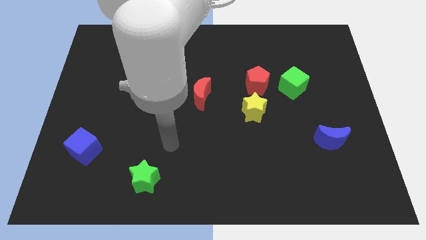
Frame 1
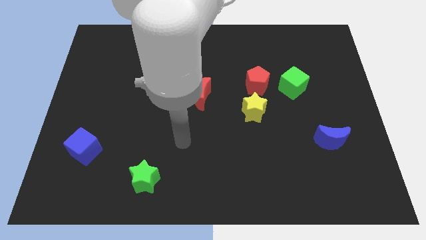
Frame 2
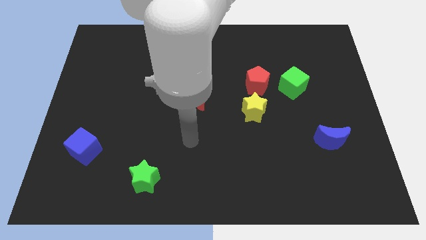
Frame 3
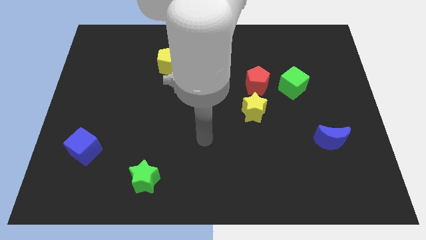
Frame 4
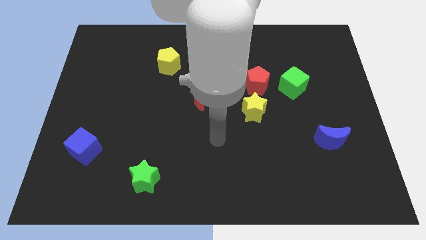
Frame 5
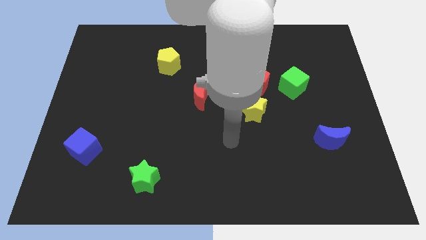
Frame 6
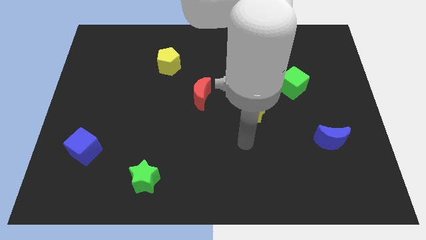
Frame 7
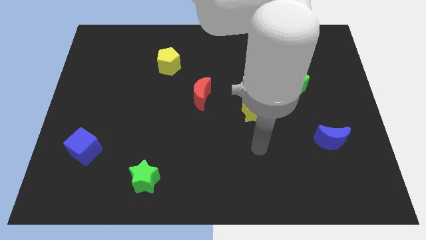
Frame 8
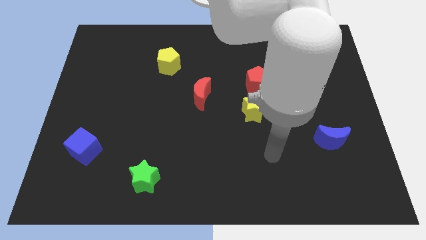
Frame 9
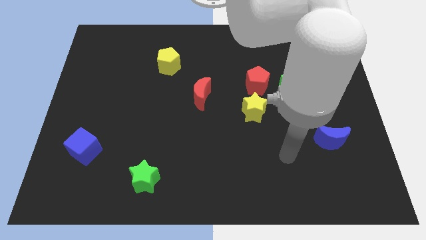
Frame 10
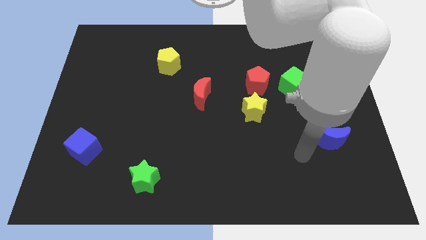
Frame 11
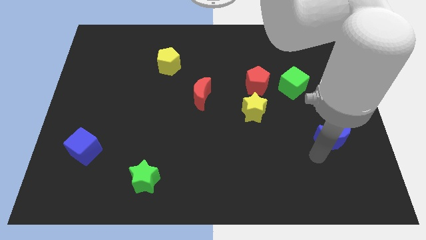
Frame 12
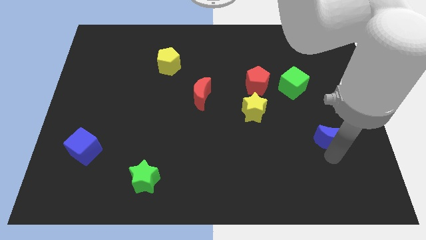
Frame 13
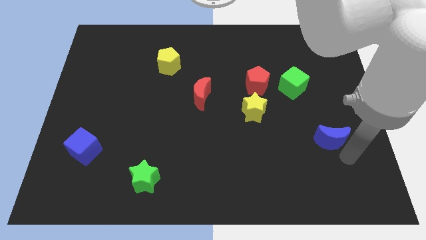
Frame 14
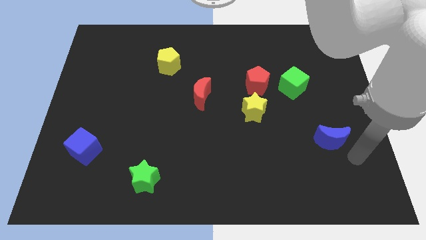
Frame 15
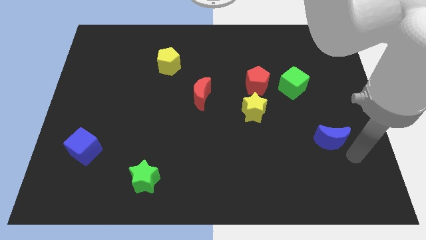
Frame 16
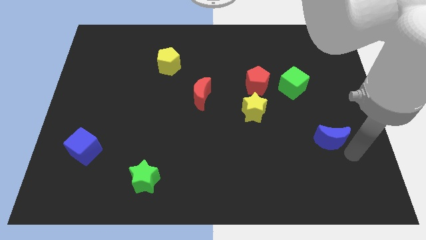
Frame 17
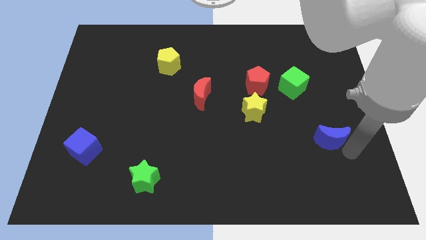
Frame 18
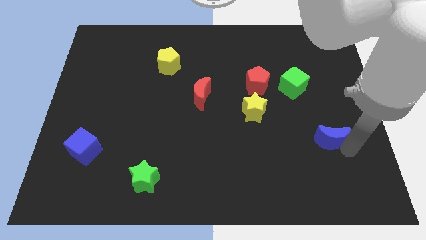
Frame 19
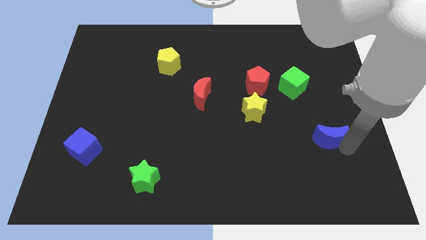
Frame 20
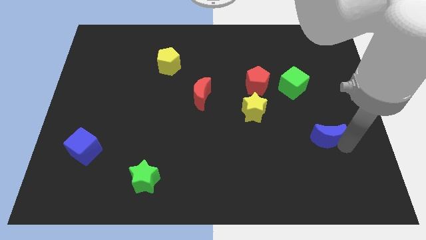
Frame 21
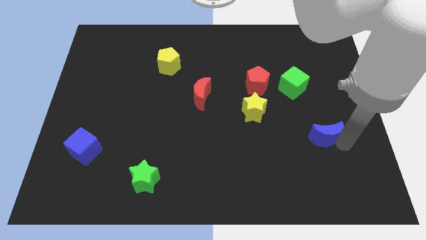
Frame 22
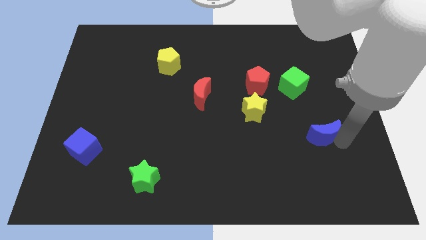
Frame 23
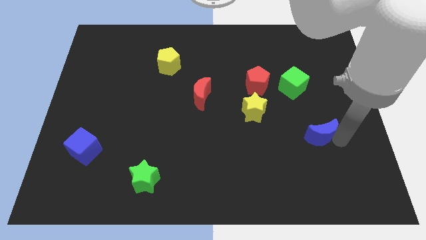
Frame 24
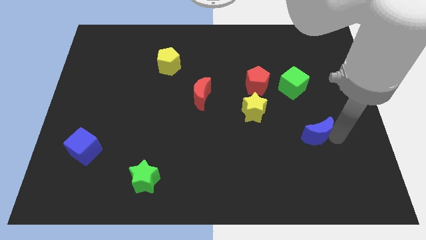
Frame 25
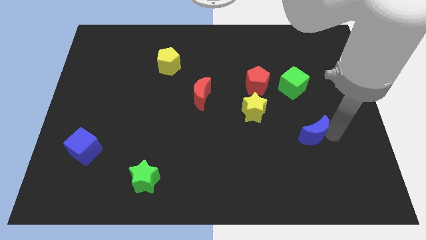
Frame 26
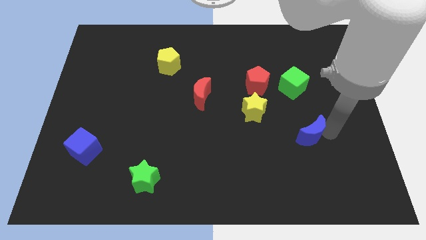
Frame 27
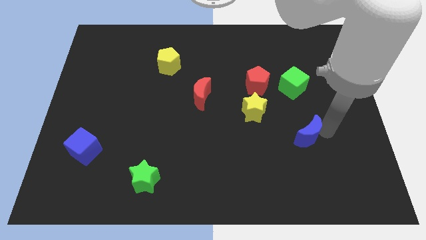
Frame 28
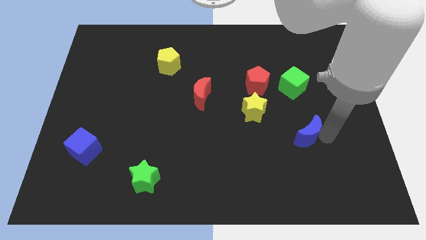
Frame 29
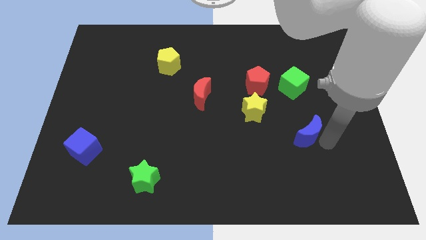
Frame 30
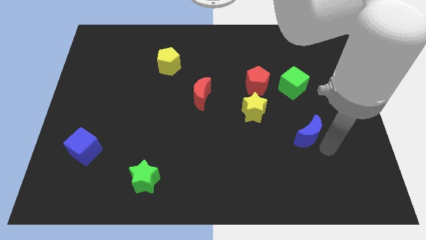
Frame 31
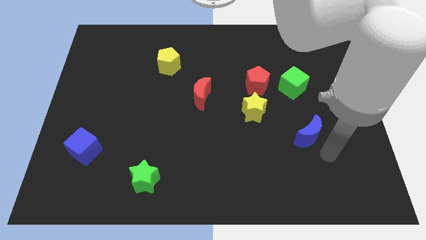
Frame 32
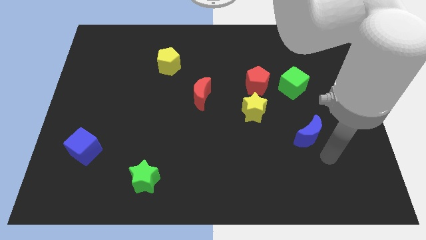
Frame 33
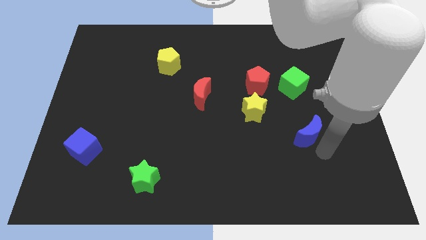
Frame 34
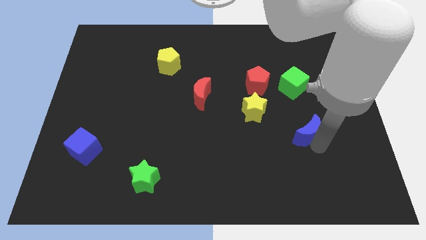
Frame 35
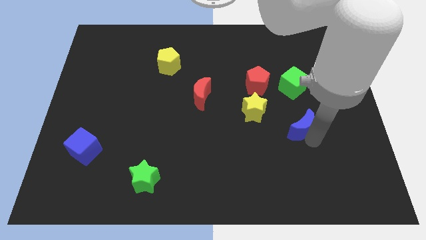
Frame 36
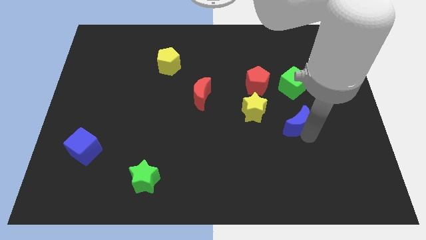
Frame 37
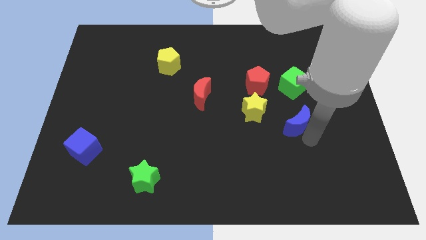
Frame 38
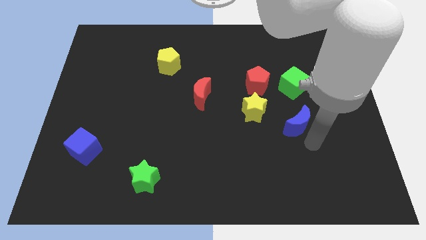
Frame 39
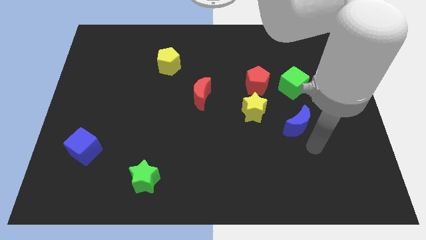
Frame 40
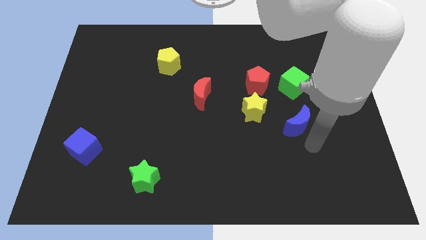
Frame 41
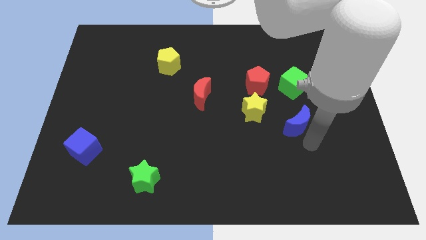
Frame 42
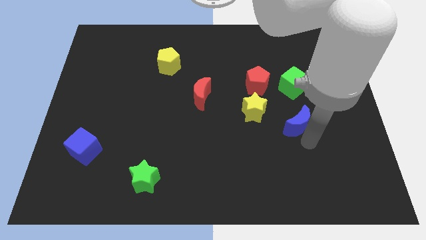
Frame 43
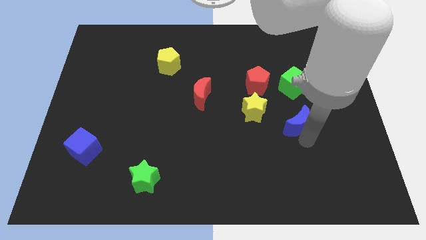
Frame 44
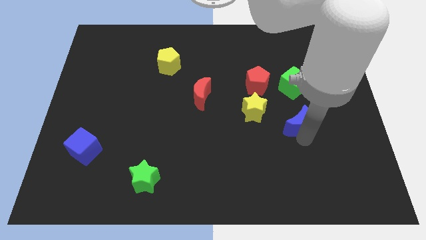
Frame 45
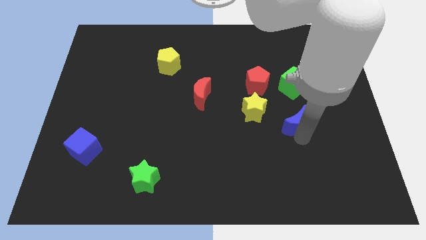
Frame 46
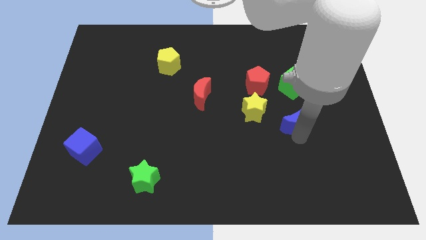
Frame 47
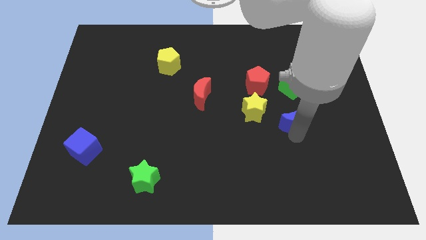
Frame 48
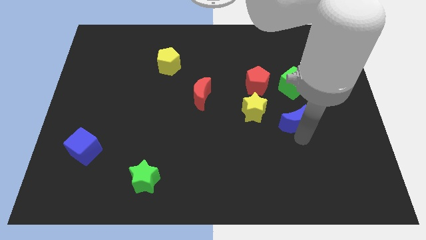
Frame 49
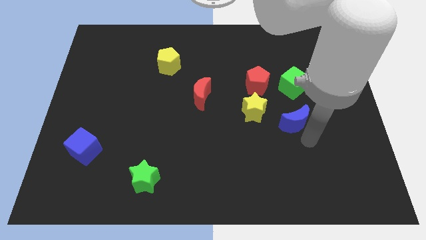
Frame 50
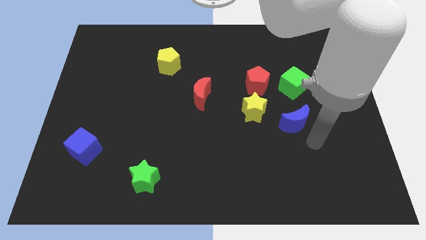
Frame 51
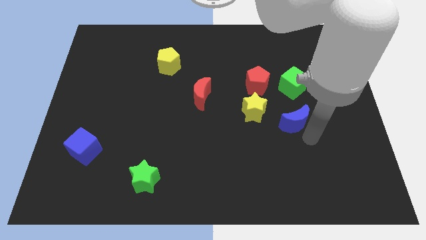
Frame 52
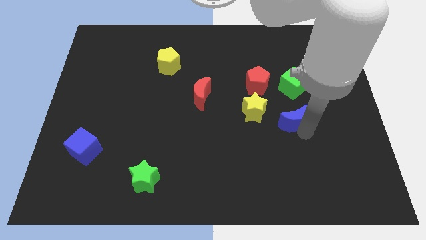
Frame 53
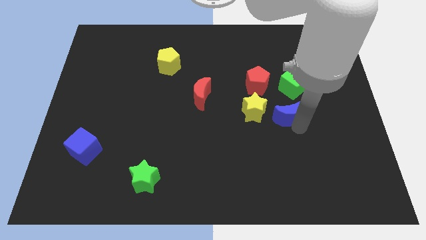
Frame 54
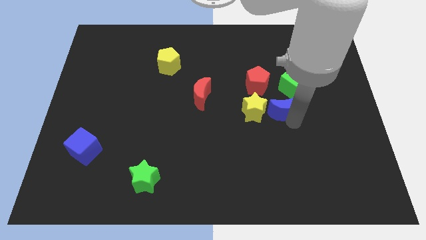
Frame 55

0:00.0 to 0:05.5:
slide the blue moon to the bottom left side of the green cube

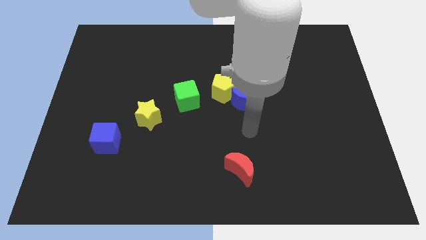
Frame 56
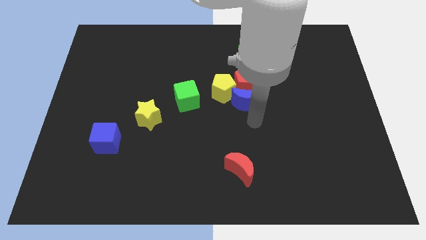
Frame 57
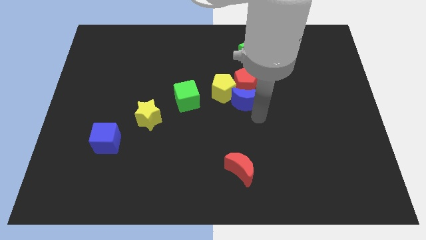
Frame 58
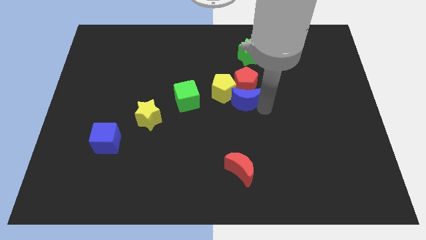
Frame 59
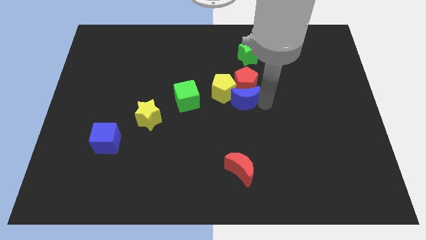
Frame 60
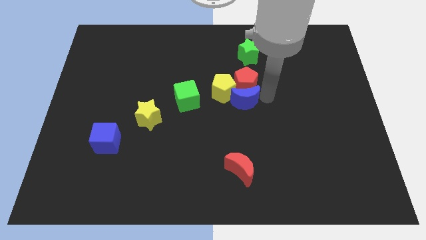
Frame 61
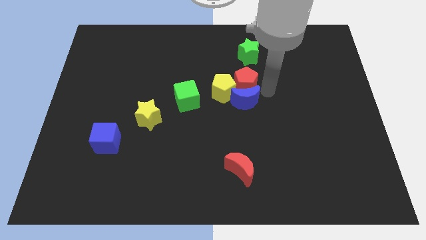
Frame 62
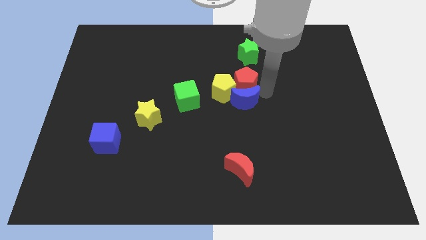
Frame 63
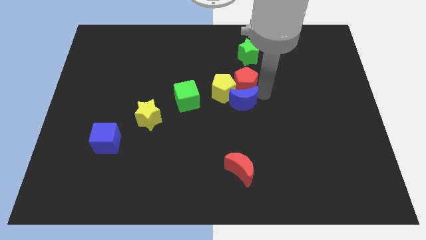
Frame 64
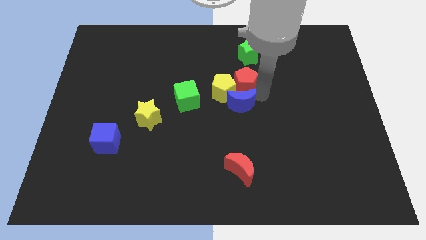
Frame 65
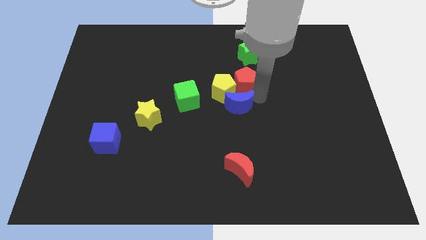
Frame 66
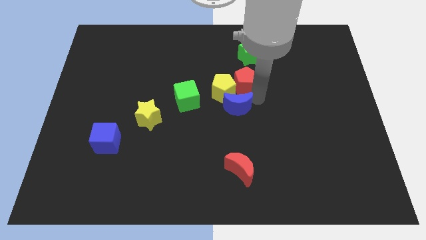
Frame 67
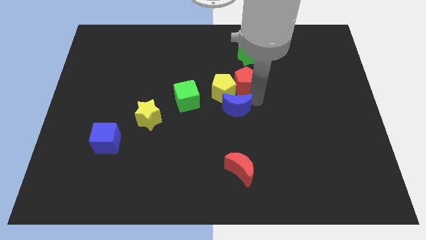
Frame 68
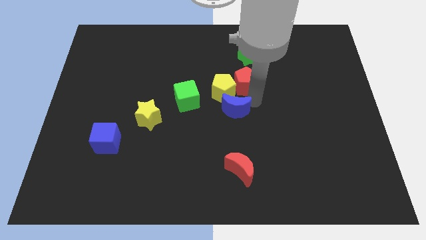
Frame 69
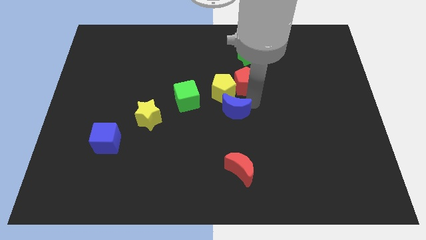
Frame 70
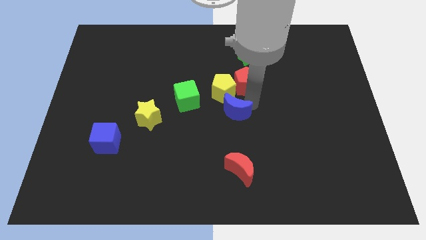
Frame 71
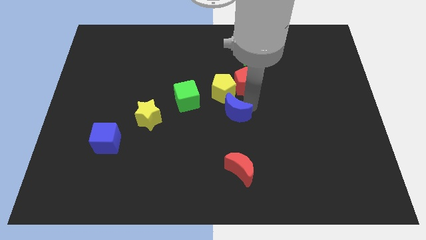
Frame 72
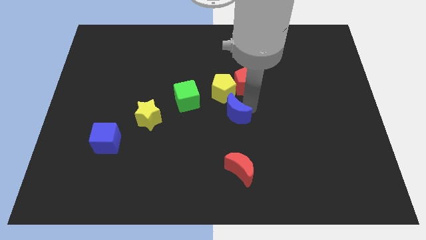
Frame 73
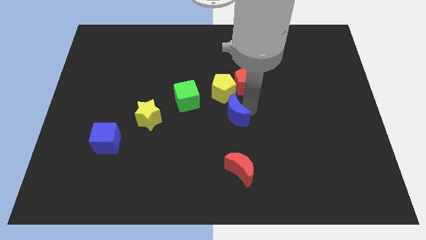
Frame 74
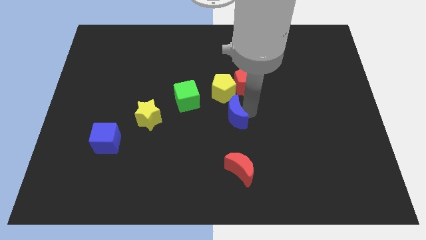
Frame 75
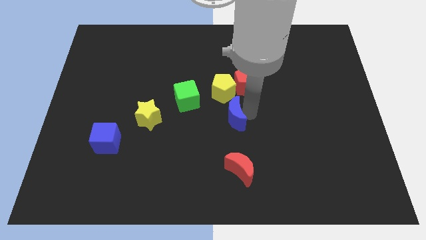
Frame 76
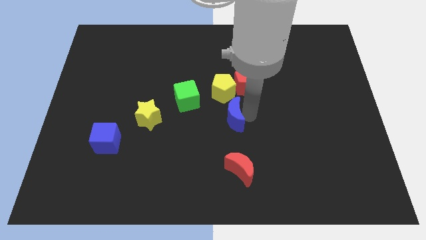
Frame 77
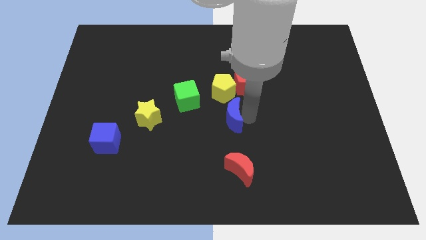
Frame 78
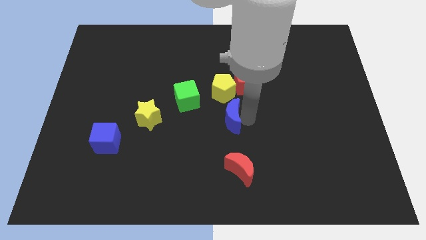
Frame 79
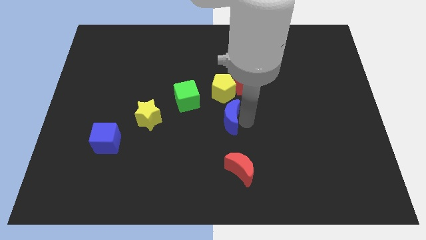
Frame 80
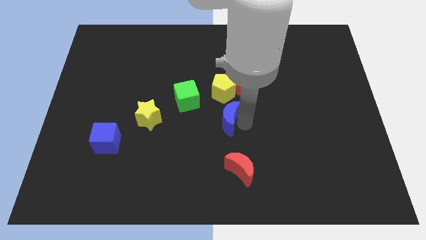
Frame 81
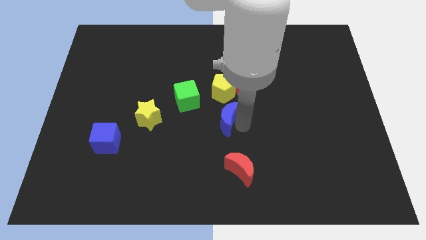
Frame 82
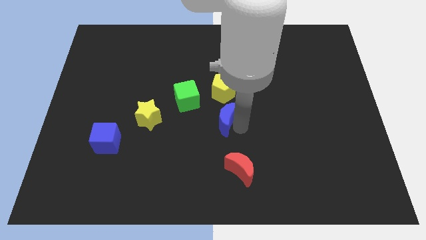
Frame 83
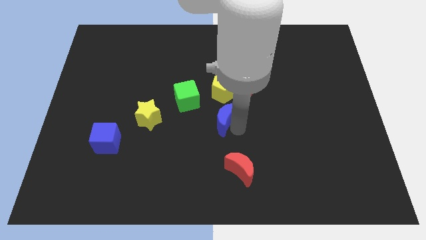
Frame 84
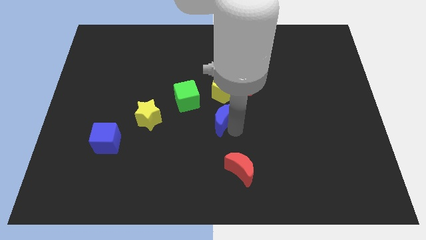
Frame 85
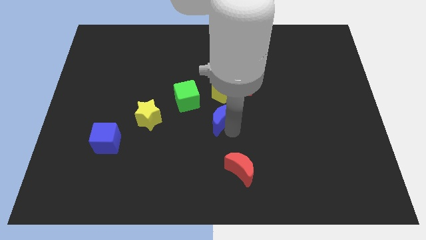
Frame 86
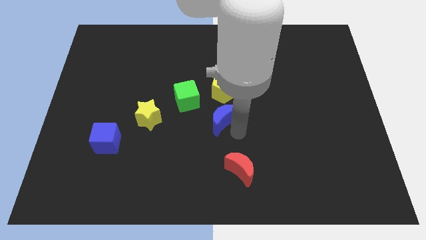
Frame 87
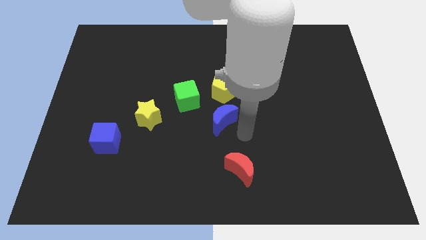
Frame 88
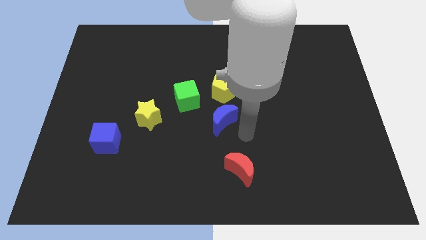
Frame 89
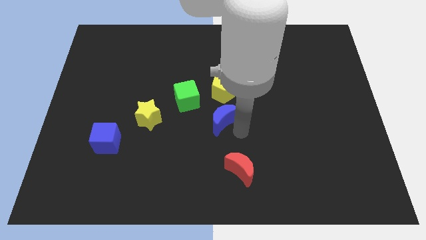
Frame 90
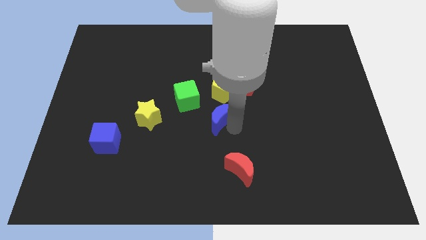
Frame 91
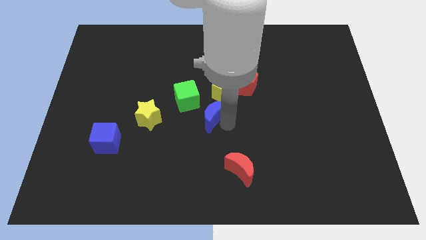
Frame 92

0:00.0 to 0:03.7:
slide the blue moon diagonally down and to the left of the yellow pentagon
